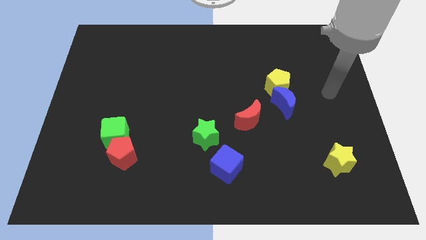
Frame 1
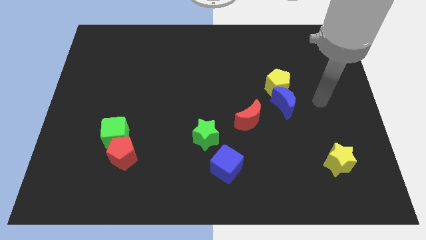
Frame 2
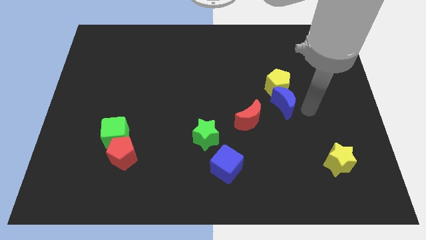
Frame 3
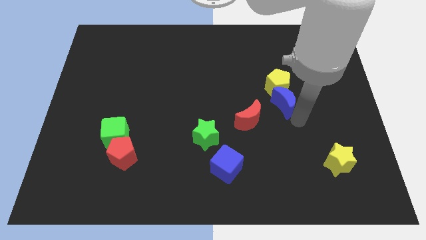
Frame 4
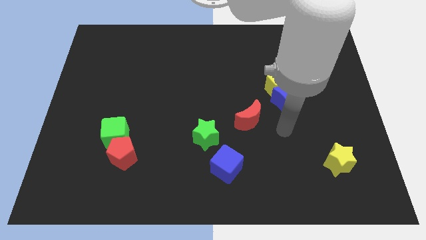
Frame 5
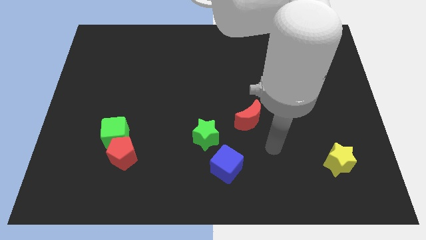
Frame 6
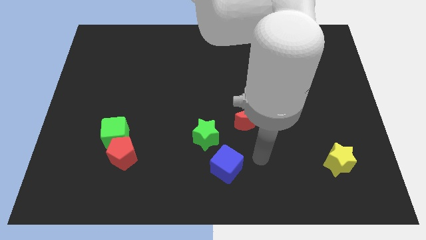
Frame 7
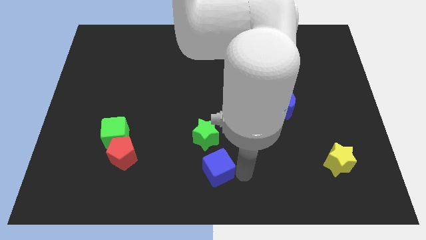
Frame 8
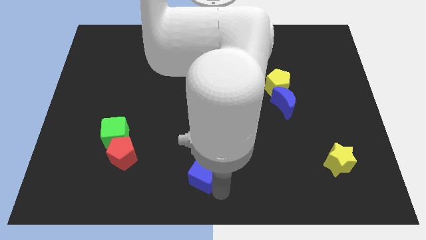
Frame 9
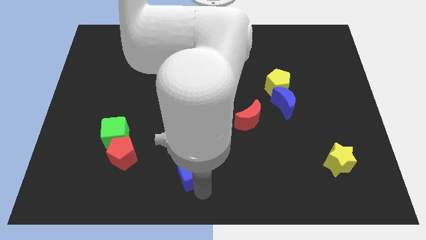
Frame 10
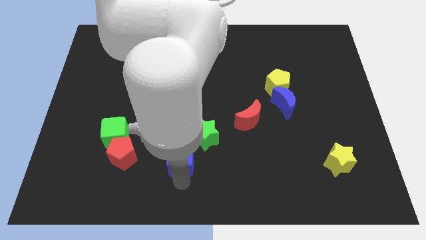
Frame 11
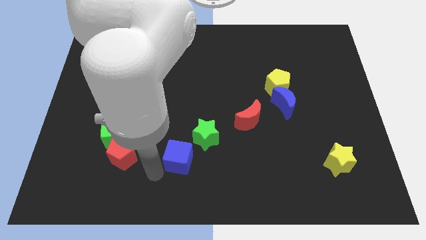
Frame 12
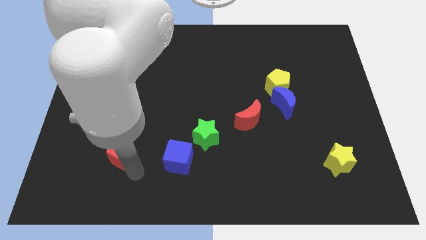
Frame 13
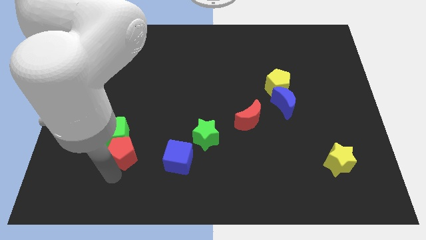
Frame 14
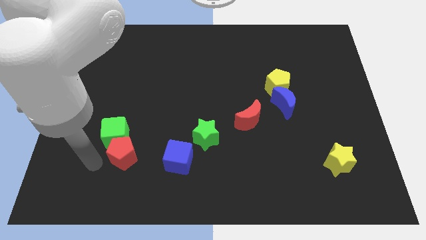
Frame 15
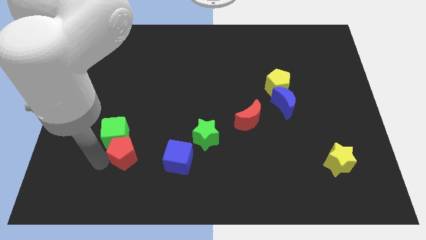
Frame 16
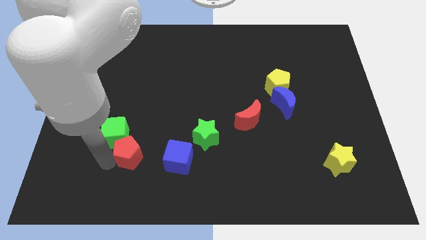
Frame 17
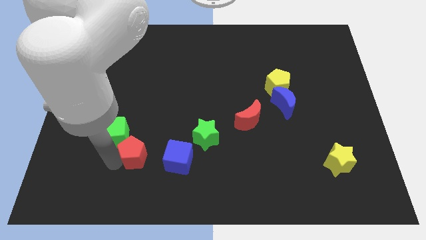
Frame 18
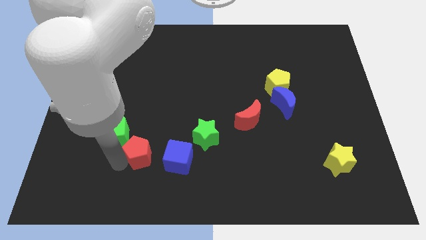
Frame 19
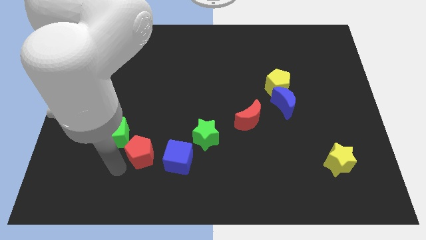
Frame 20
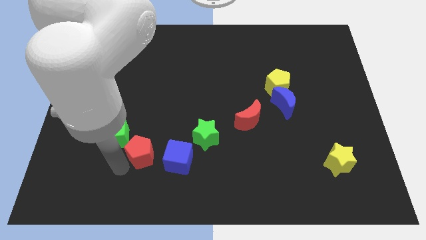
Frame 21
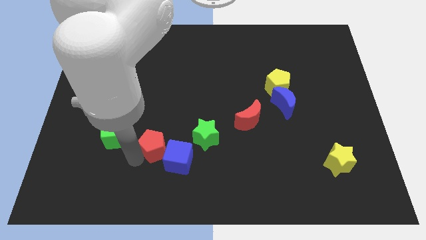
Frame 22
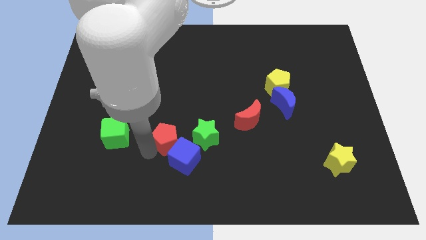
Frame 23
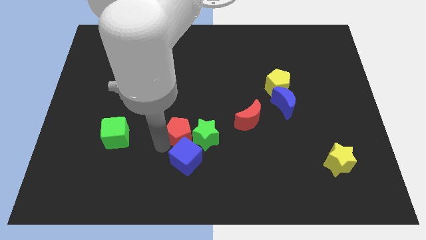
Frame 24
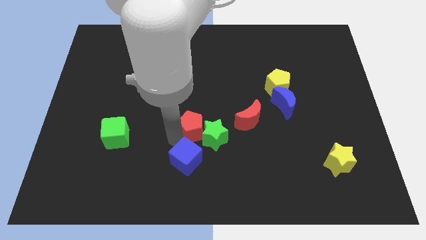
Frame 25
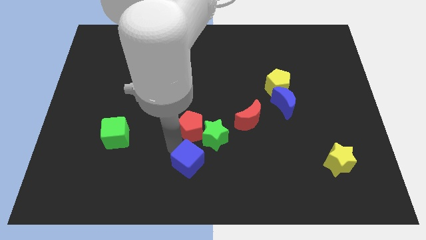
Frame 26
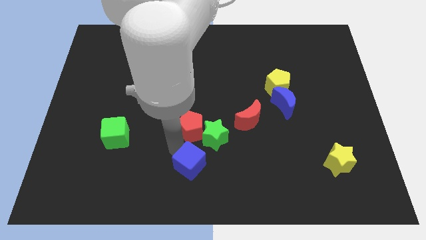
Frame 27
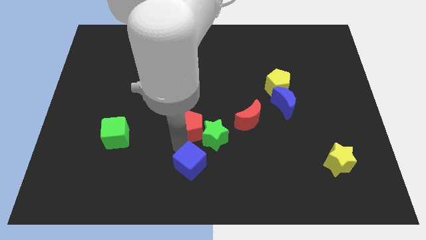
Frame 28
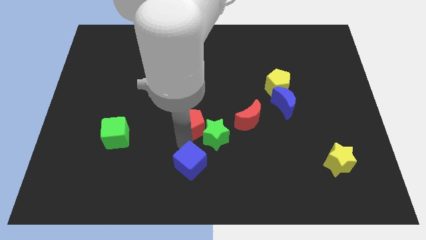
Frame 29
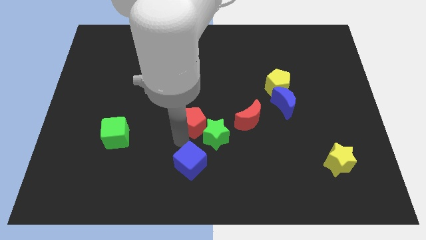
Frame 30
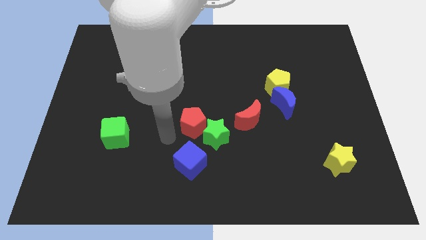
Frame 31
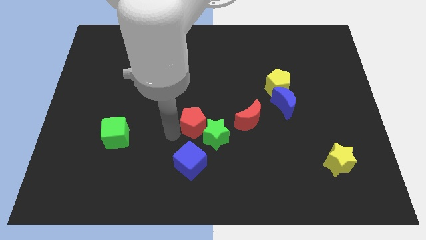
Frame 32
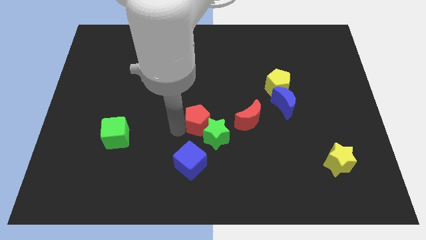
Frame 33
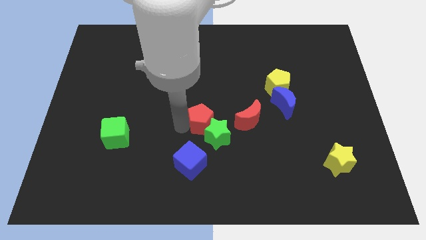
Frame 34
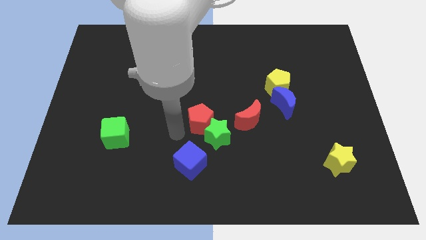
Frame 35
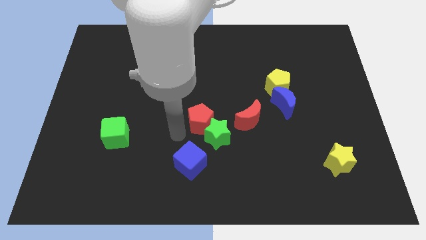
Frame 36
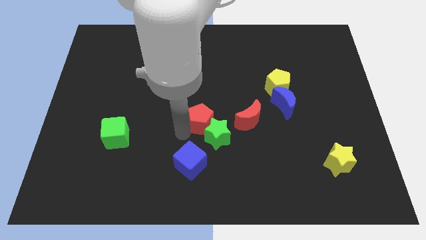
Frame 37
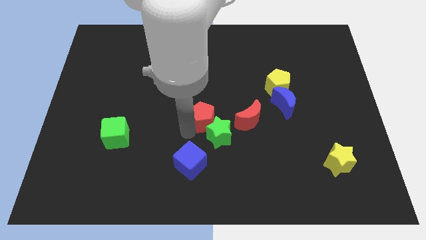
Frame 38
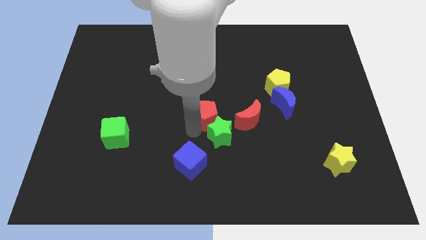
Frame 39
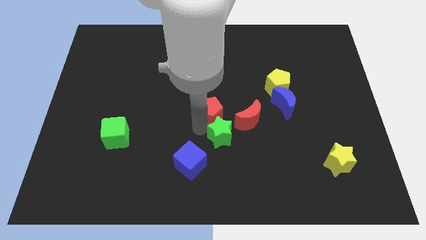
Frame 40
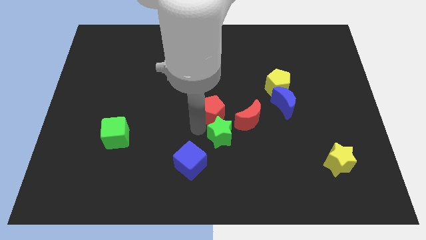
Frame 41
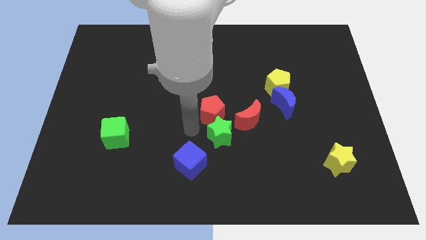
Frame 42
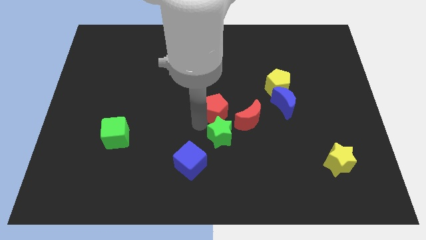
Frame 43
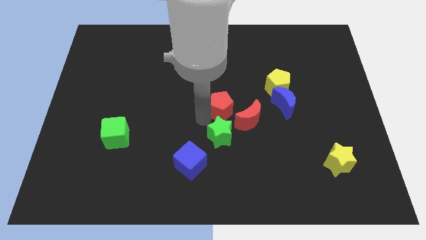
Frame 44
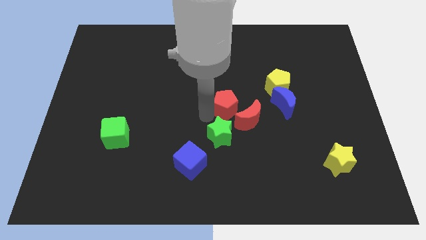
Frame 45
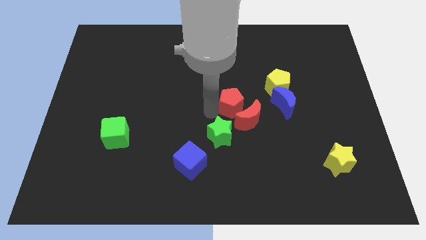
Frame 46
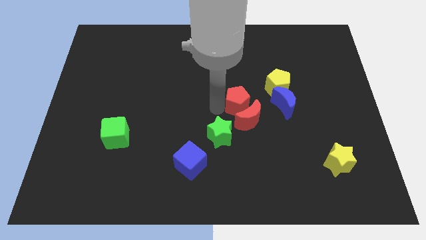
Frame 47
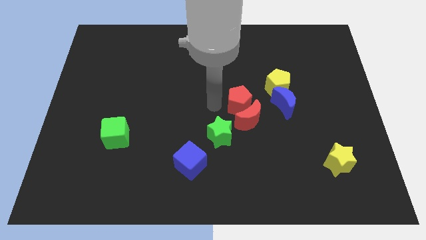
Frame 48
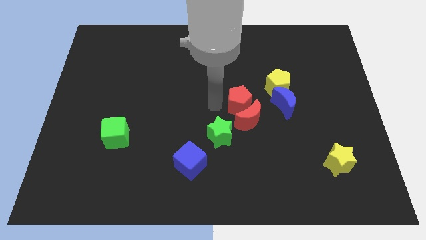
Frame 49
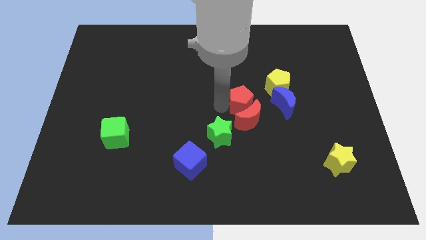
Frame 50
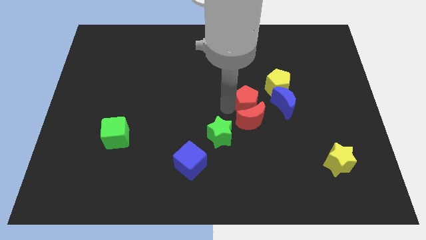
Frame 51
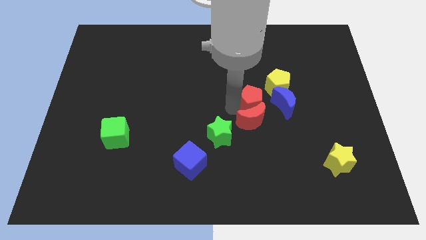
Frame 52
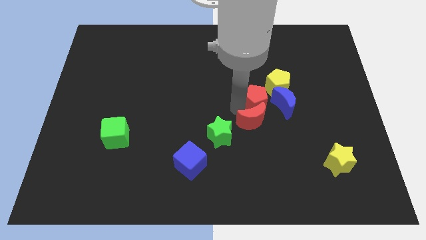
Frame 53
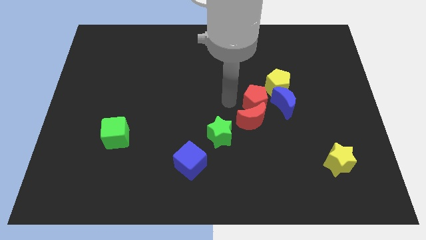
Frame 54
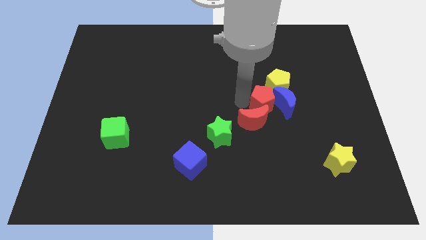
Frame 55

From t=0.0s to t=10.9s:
put the red pentagon next to the blue moon

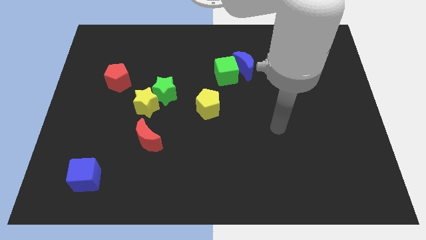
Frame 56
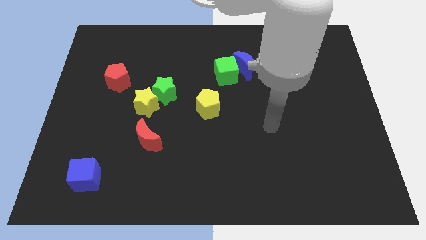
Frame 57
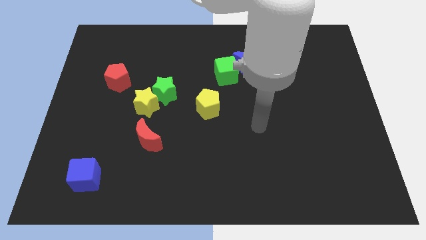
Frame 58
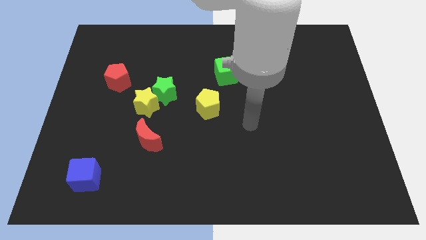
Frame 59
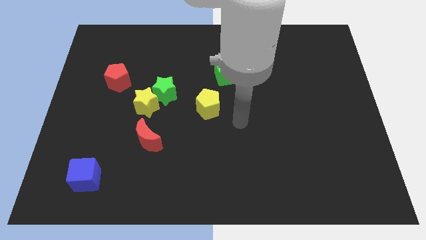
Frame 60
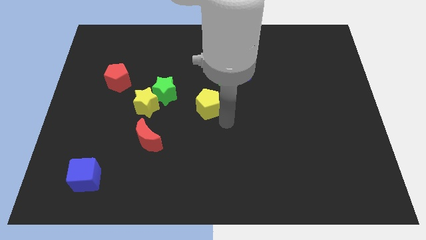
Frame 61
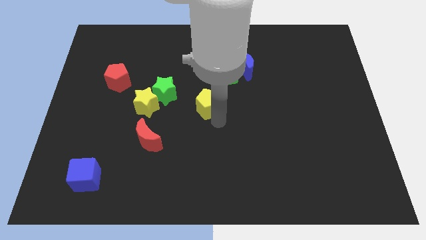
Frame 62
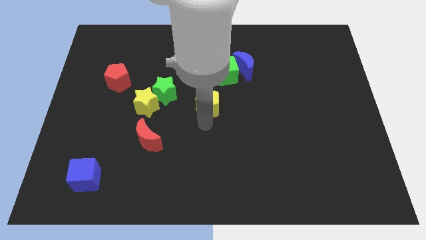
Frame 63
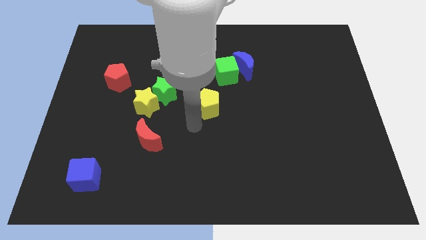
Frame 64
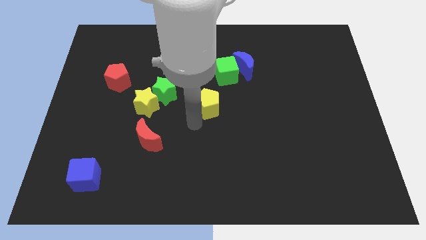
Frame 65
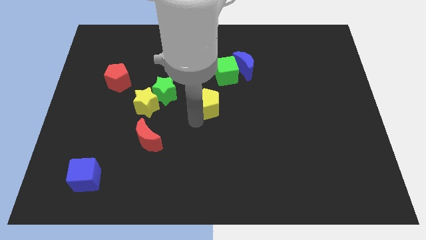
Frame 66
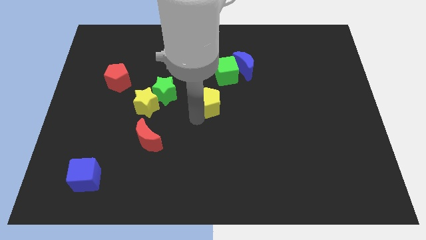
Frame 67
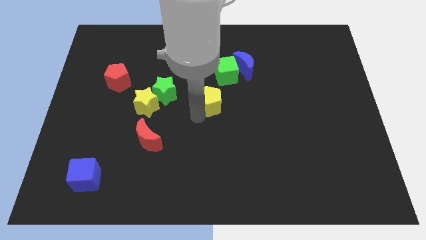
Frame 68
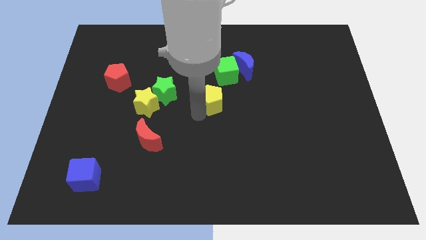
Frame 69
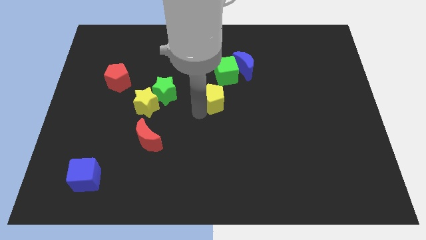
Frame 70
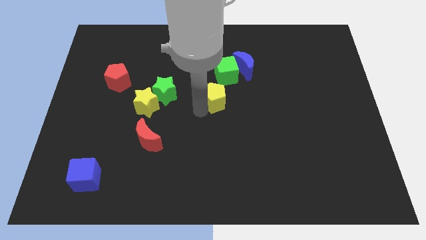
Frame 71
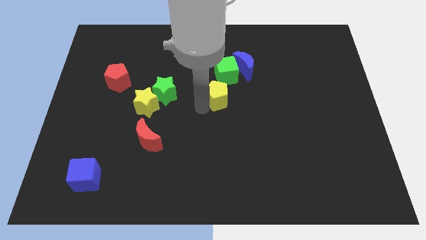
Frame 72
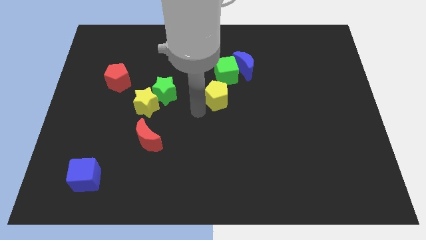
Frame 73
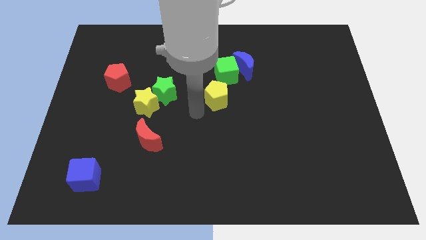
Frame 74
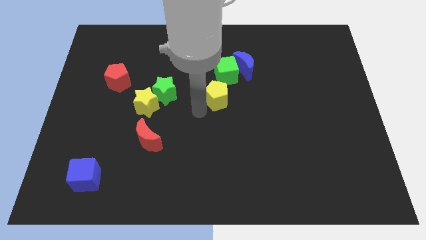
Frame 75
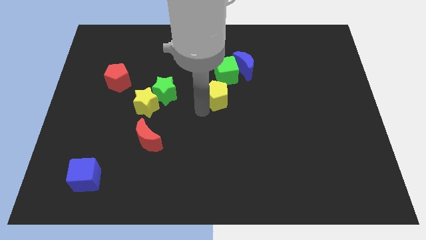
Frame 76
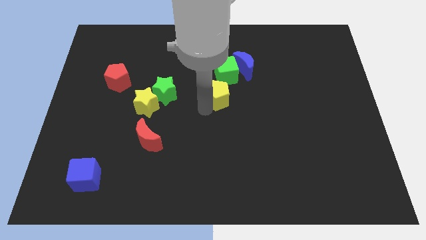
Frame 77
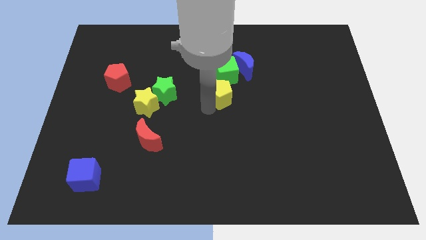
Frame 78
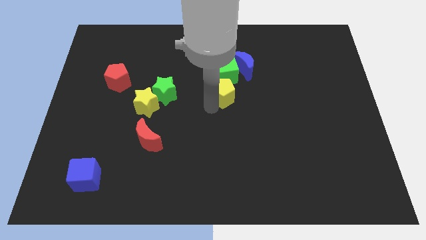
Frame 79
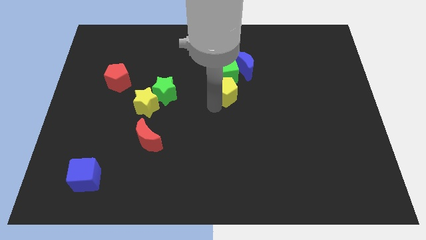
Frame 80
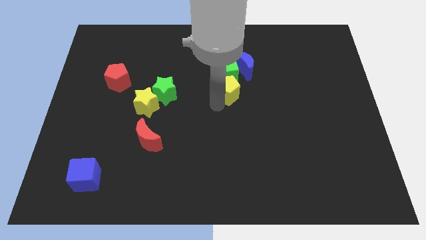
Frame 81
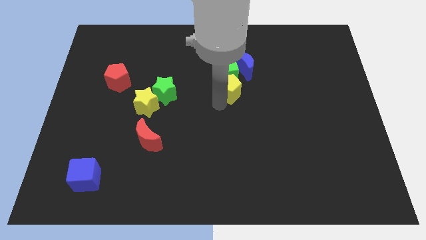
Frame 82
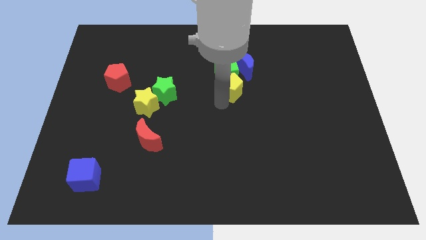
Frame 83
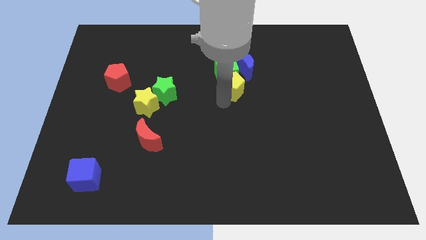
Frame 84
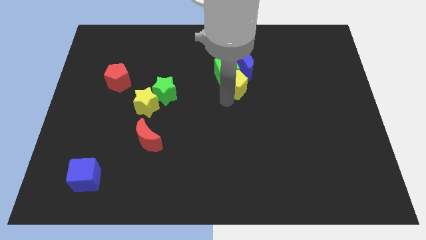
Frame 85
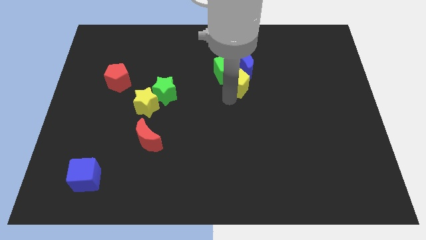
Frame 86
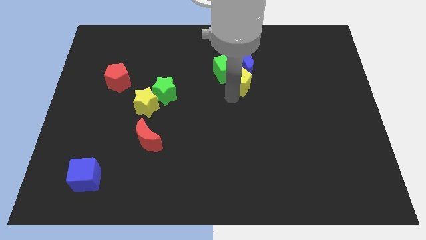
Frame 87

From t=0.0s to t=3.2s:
put the yellow pentagon towards the blue moon
